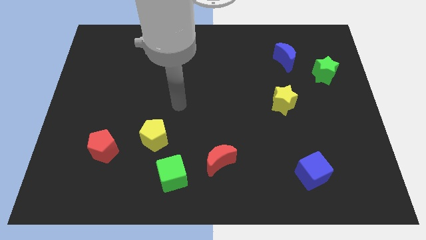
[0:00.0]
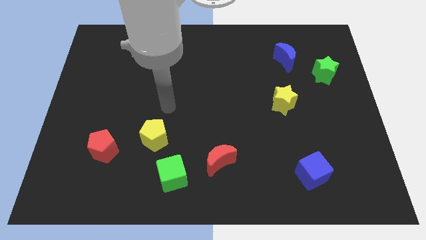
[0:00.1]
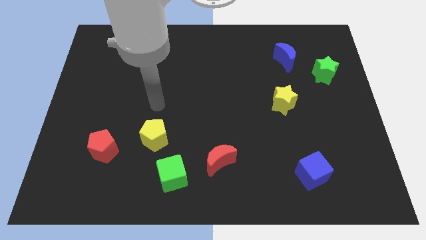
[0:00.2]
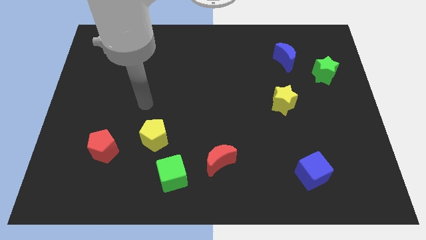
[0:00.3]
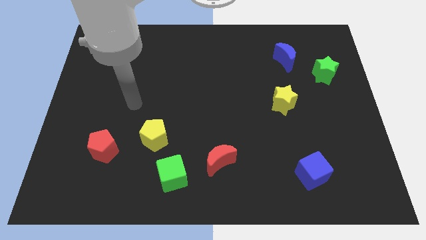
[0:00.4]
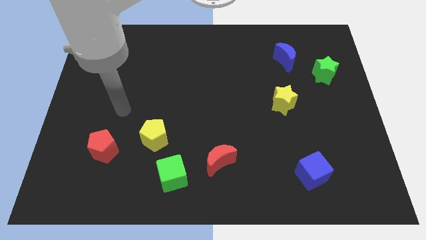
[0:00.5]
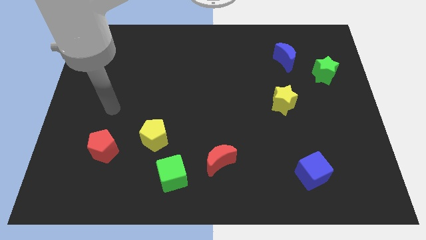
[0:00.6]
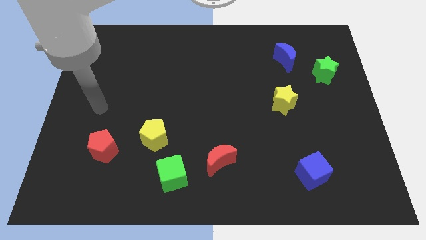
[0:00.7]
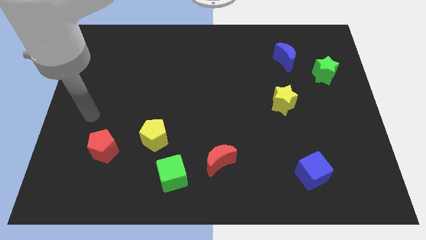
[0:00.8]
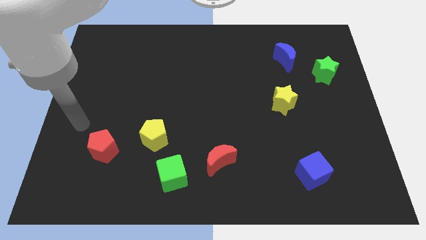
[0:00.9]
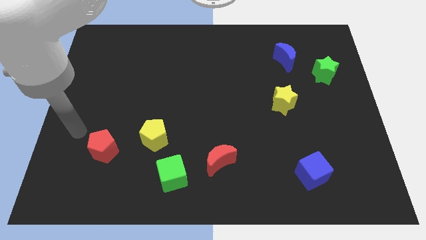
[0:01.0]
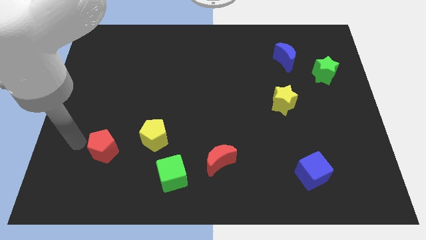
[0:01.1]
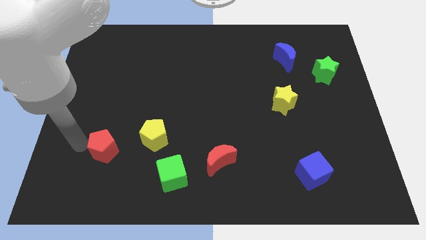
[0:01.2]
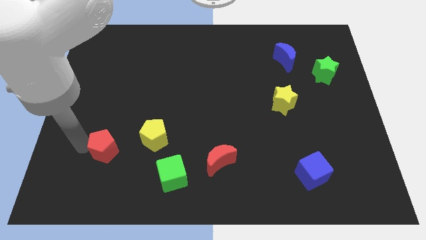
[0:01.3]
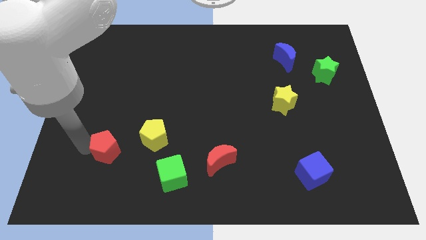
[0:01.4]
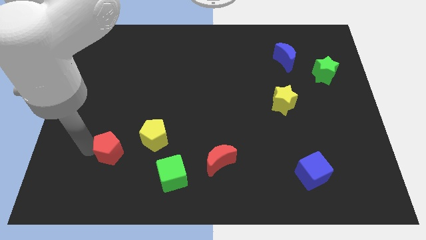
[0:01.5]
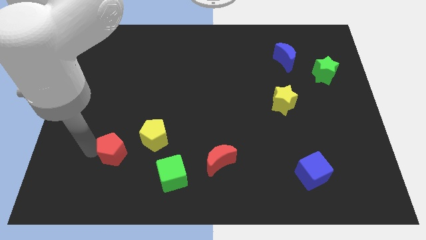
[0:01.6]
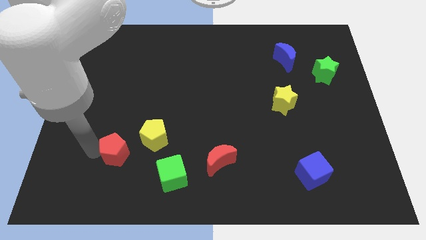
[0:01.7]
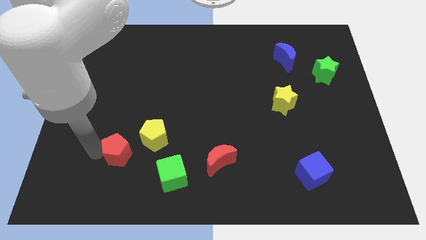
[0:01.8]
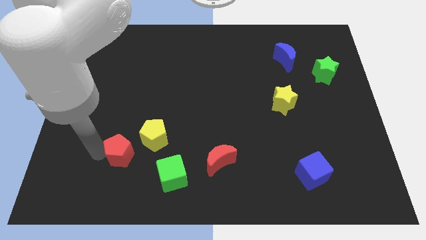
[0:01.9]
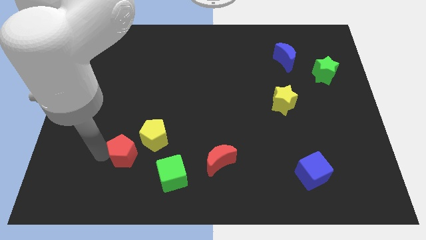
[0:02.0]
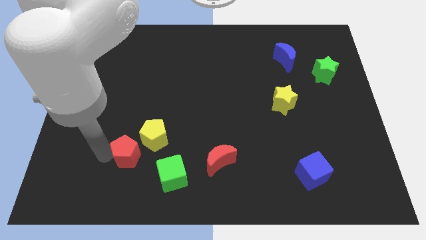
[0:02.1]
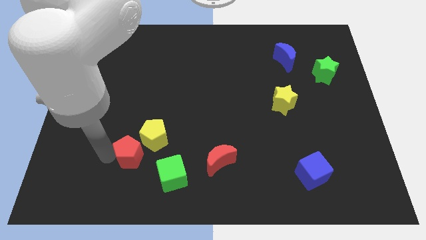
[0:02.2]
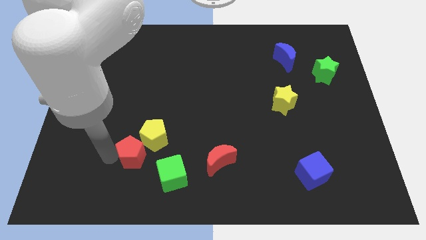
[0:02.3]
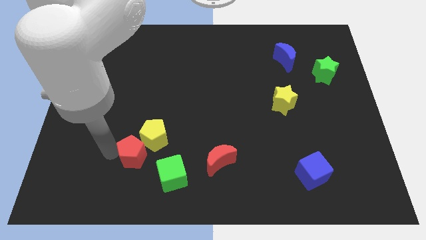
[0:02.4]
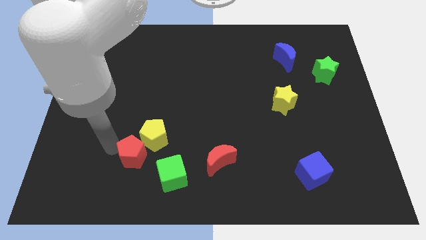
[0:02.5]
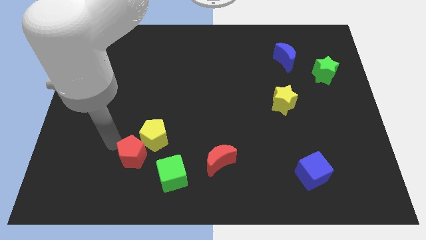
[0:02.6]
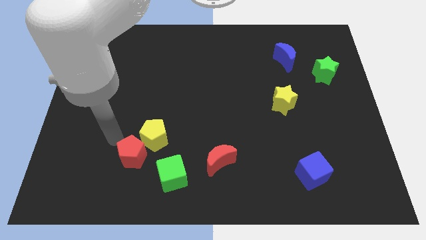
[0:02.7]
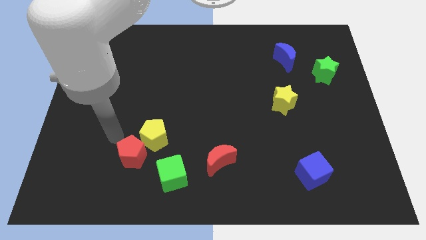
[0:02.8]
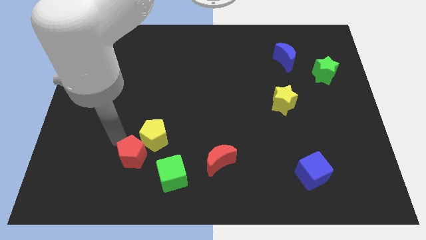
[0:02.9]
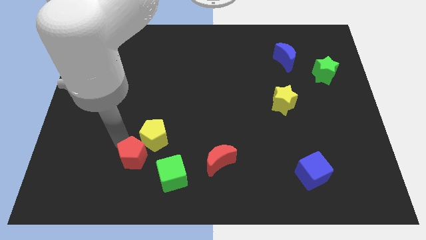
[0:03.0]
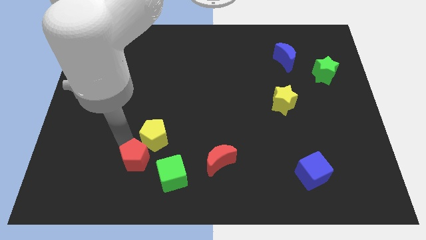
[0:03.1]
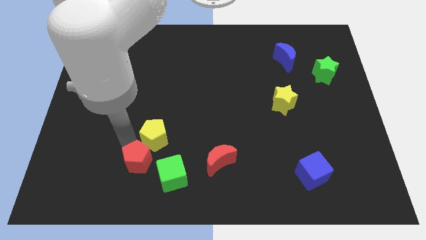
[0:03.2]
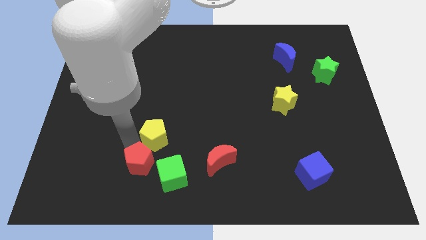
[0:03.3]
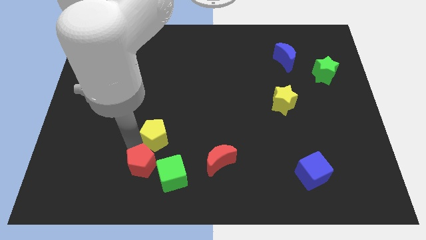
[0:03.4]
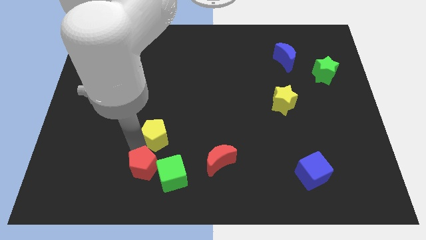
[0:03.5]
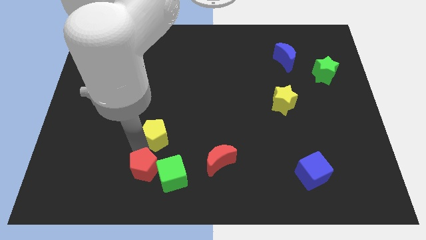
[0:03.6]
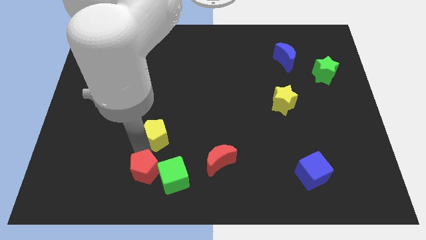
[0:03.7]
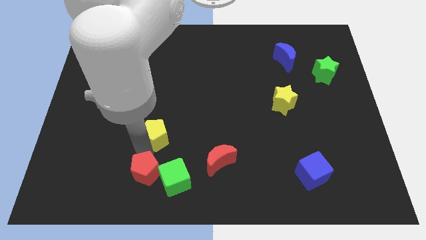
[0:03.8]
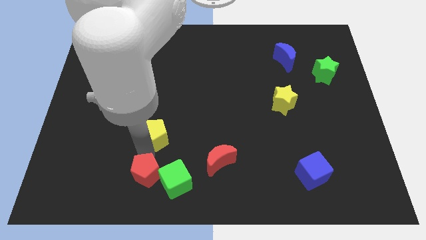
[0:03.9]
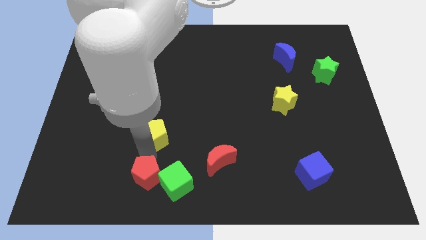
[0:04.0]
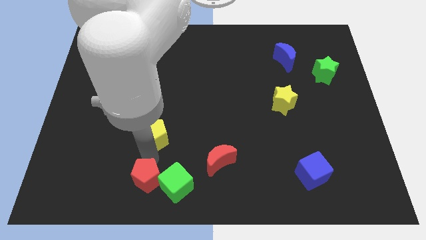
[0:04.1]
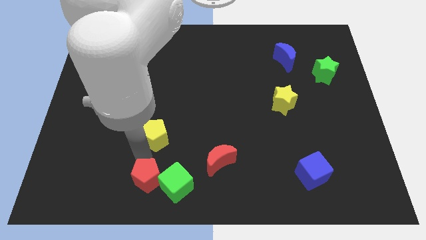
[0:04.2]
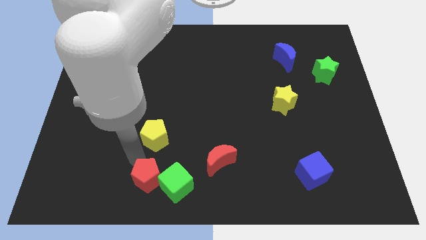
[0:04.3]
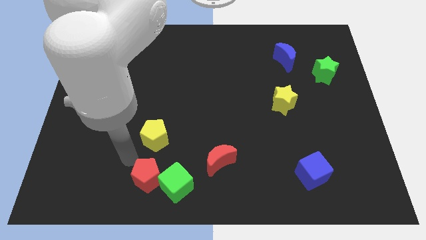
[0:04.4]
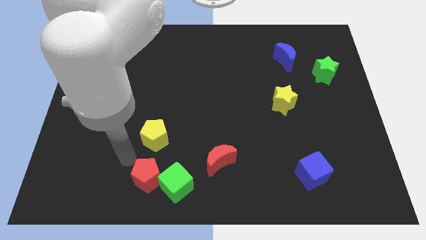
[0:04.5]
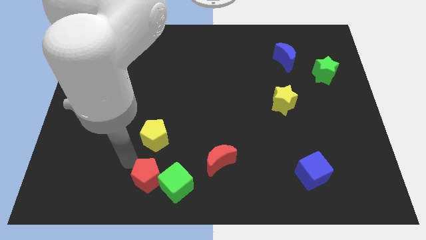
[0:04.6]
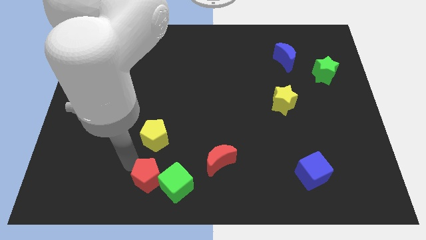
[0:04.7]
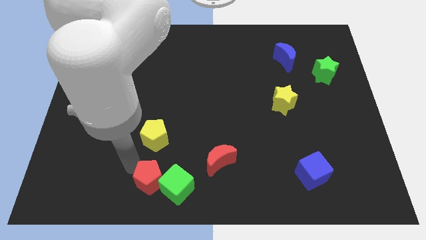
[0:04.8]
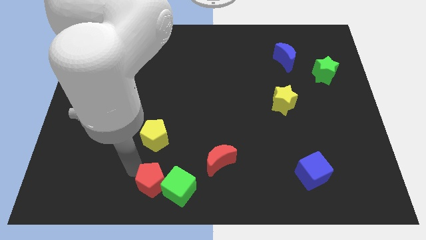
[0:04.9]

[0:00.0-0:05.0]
move the red pentagon to the bottom side

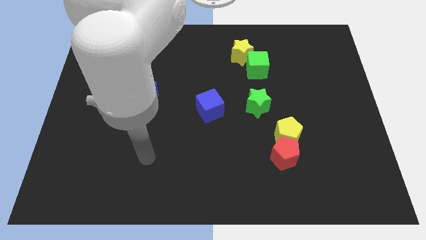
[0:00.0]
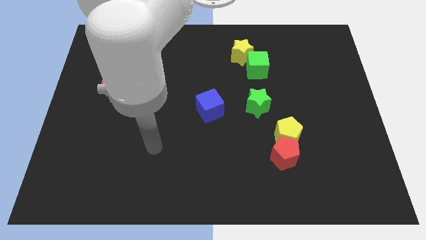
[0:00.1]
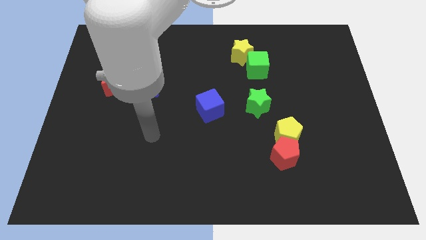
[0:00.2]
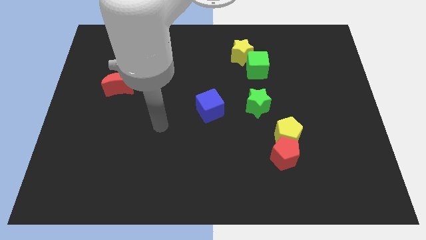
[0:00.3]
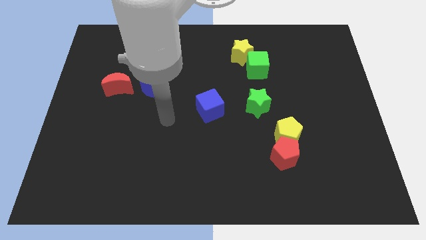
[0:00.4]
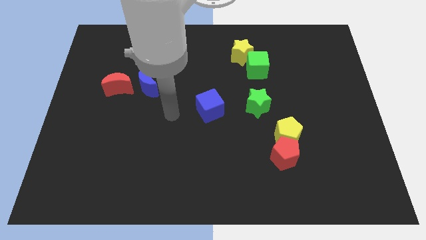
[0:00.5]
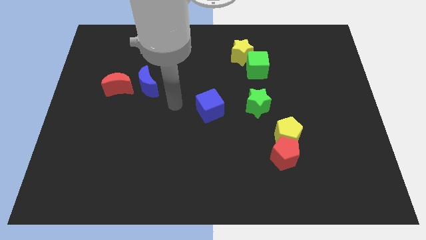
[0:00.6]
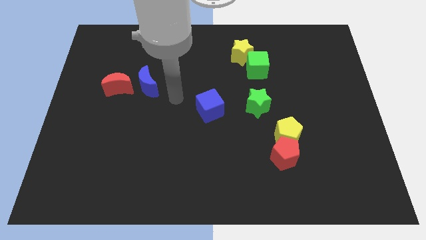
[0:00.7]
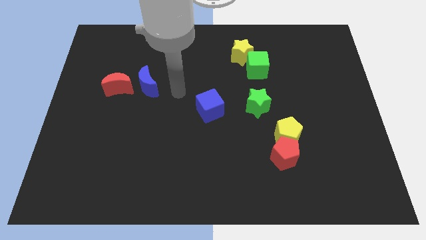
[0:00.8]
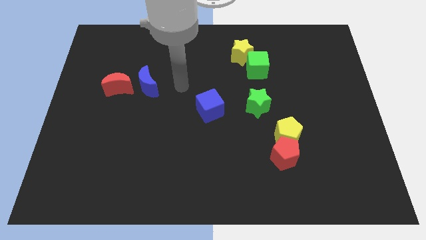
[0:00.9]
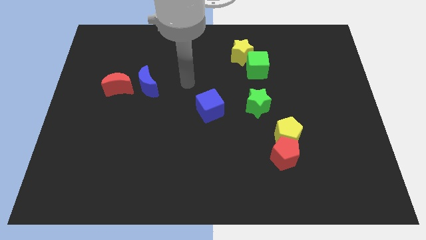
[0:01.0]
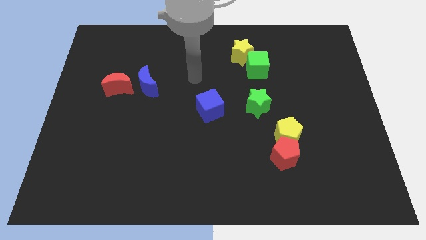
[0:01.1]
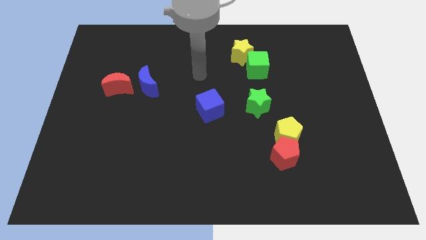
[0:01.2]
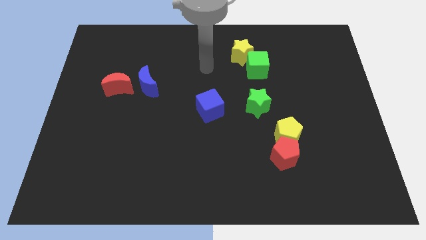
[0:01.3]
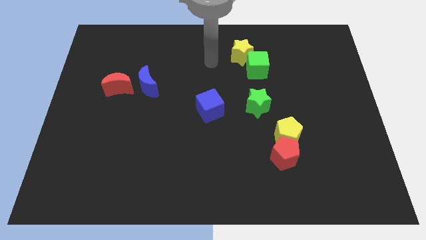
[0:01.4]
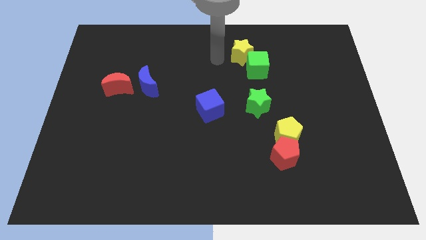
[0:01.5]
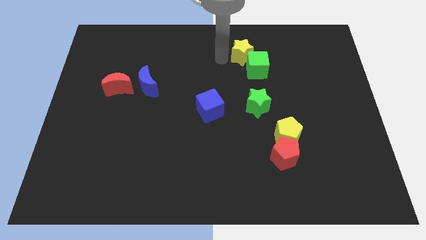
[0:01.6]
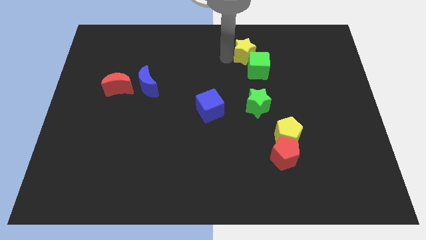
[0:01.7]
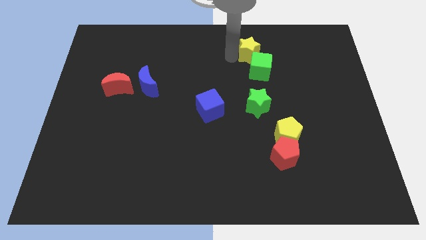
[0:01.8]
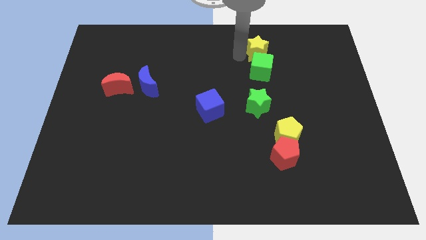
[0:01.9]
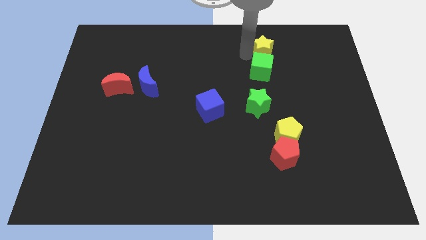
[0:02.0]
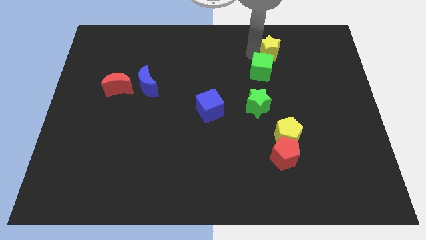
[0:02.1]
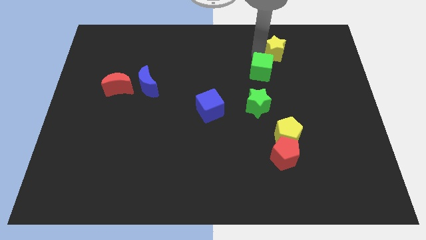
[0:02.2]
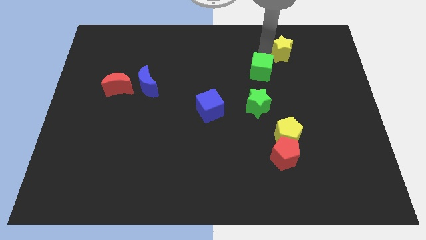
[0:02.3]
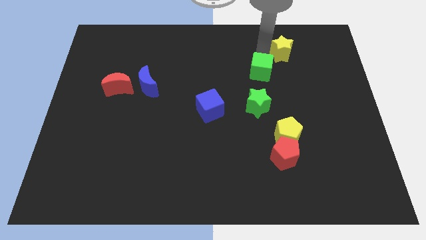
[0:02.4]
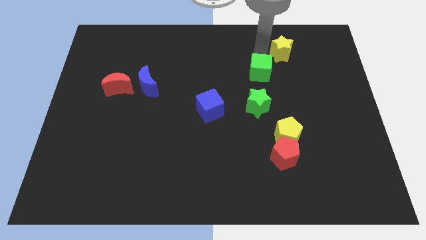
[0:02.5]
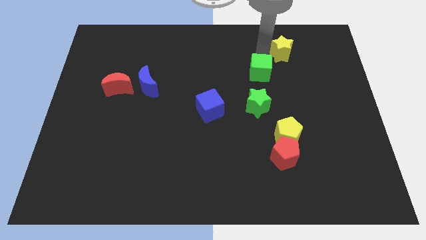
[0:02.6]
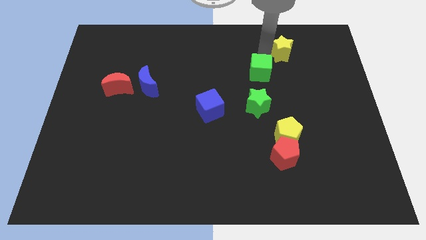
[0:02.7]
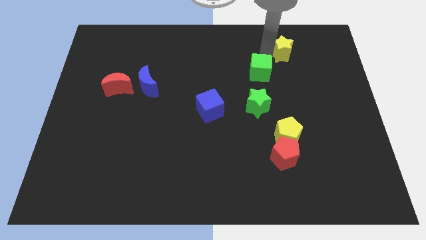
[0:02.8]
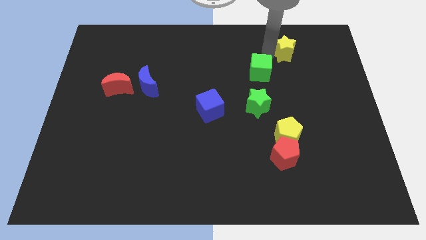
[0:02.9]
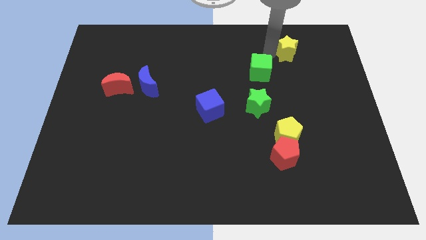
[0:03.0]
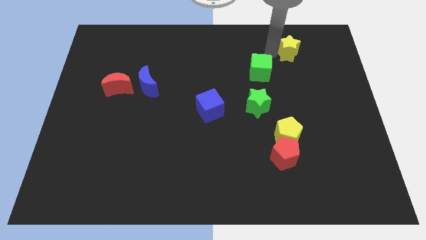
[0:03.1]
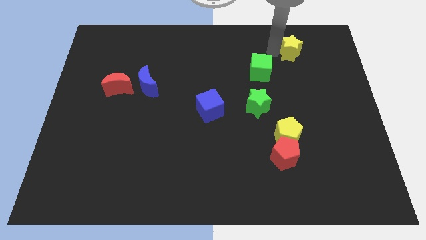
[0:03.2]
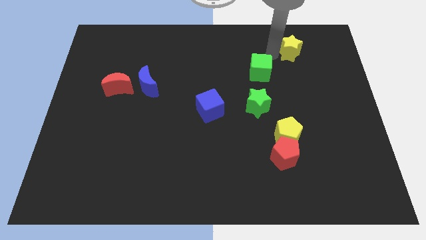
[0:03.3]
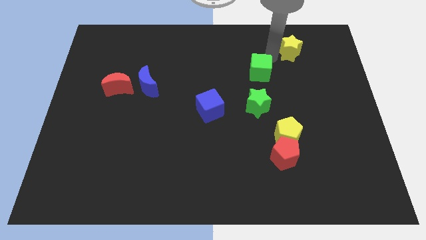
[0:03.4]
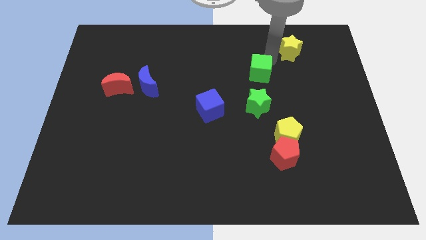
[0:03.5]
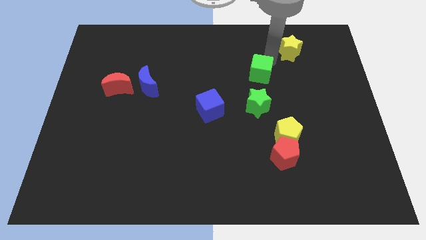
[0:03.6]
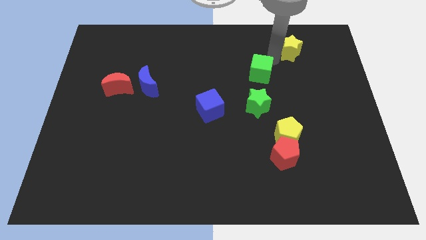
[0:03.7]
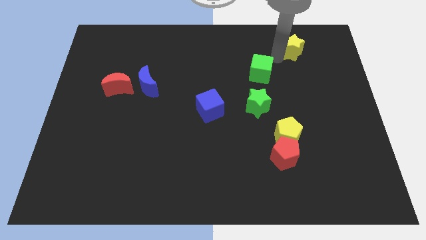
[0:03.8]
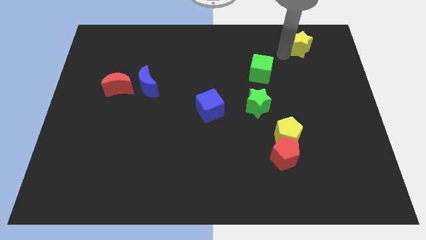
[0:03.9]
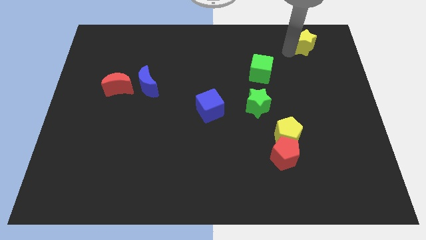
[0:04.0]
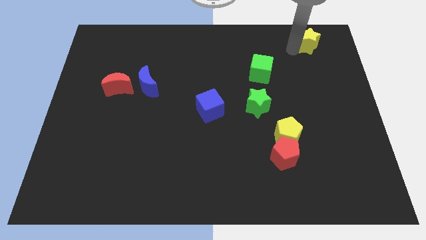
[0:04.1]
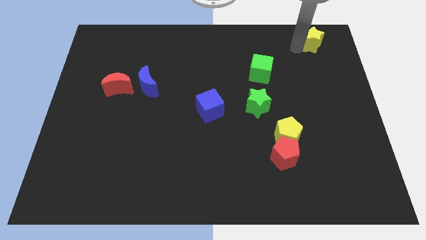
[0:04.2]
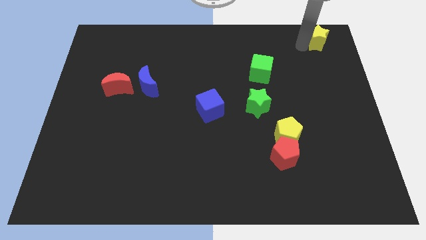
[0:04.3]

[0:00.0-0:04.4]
put the yellow star to the top right corner
